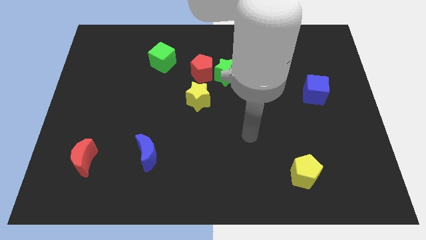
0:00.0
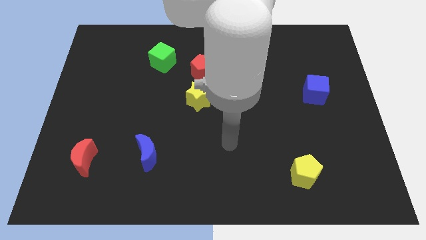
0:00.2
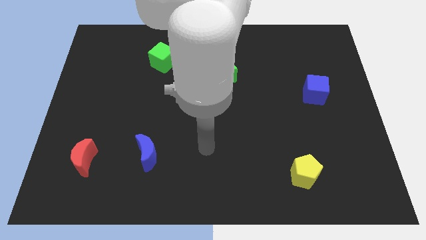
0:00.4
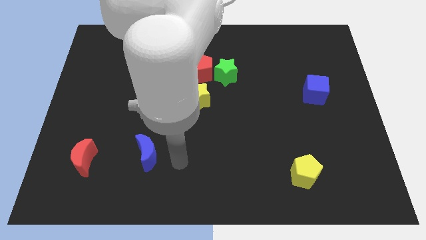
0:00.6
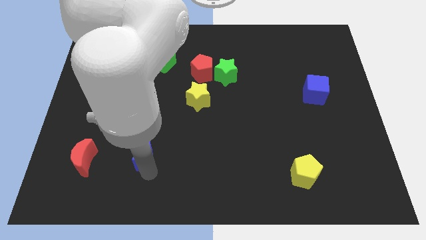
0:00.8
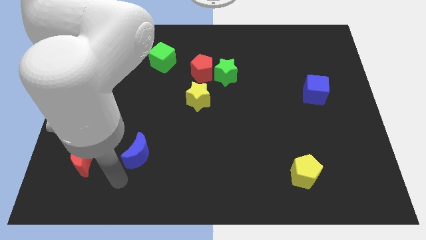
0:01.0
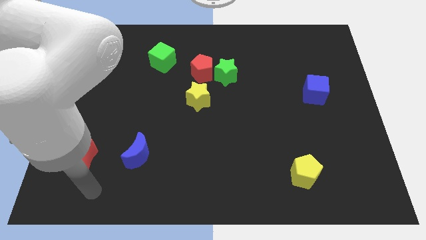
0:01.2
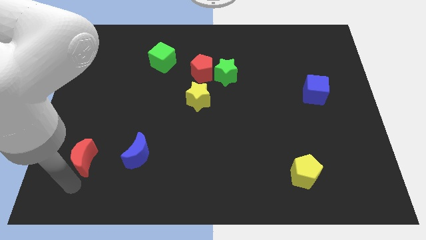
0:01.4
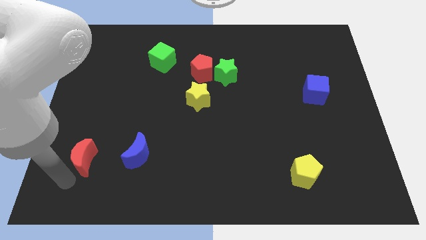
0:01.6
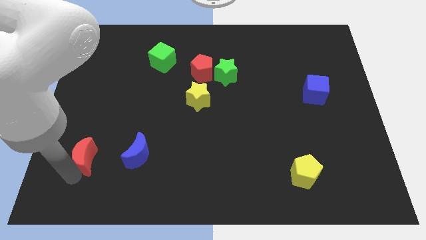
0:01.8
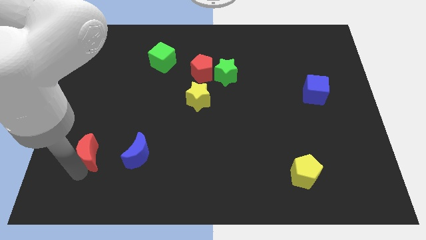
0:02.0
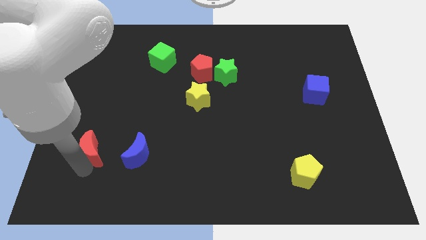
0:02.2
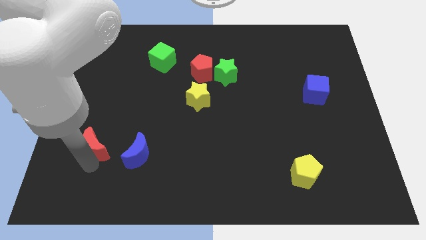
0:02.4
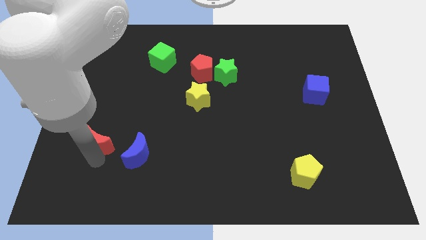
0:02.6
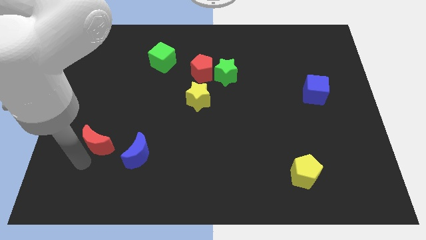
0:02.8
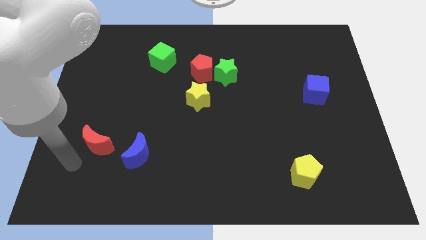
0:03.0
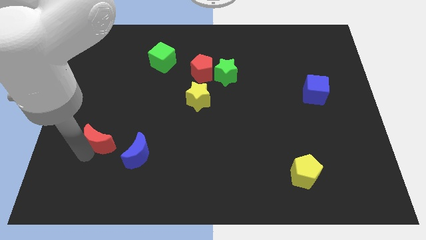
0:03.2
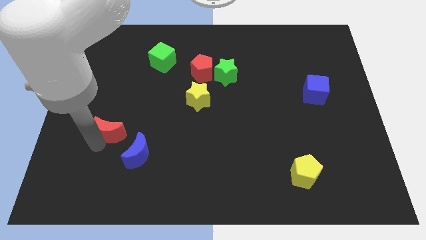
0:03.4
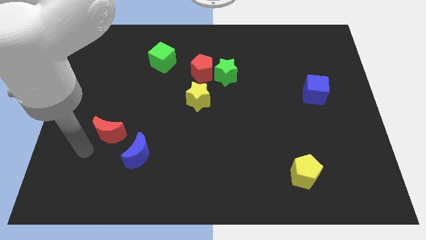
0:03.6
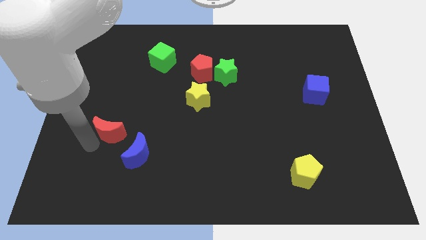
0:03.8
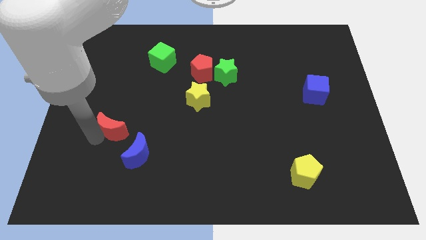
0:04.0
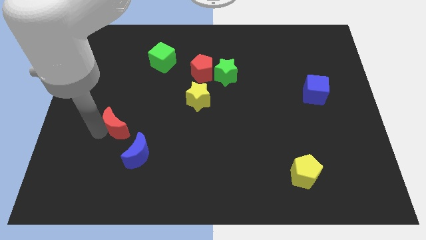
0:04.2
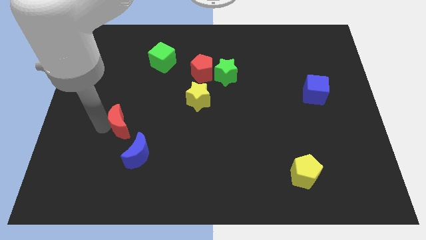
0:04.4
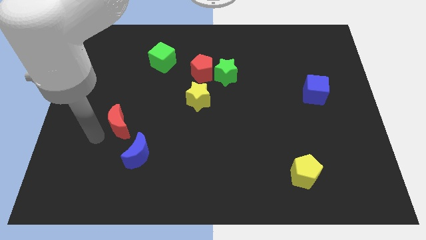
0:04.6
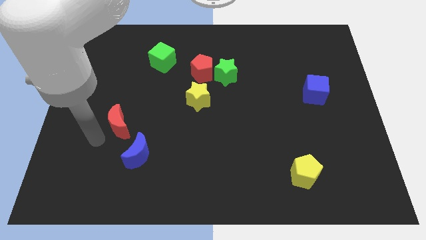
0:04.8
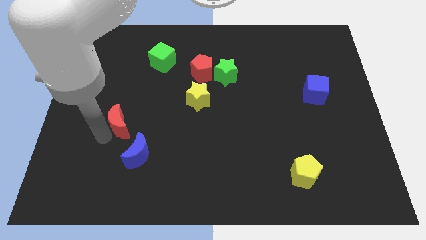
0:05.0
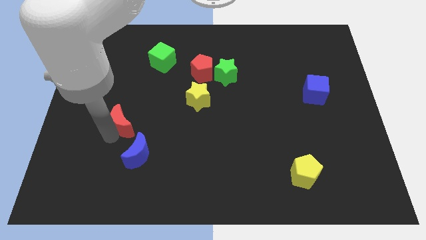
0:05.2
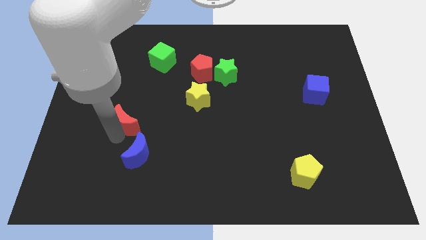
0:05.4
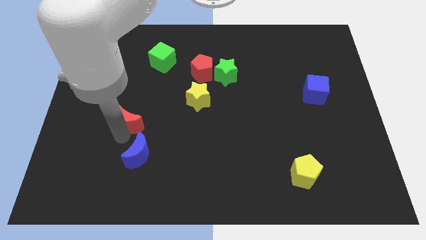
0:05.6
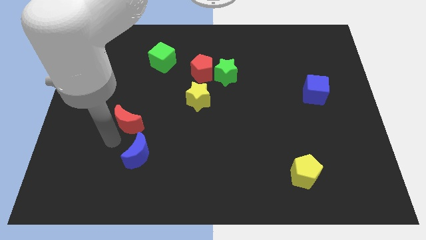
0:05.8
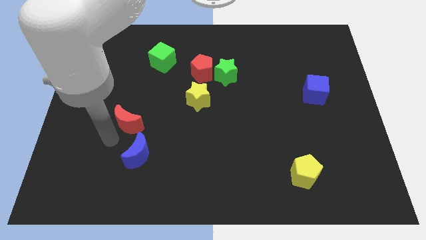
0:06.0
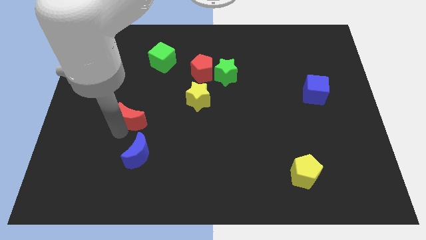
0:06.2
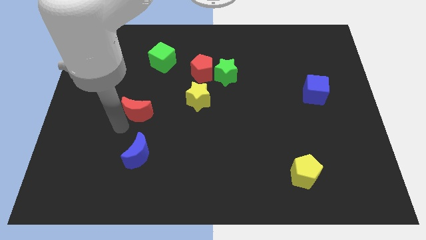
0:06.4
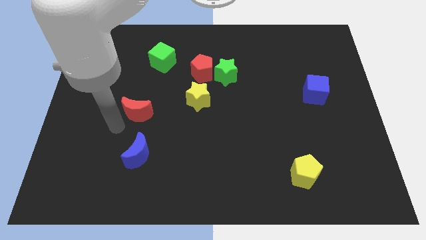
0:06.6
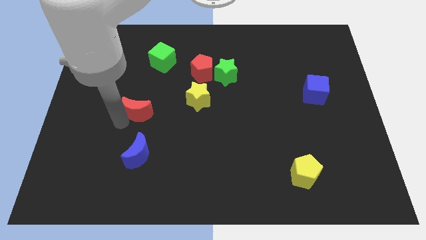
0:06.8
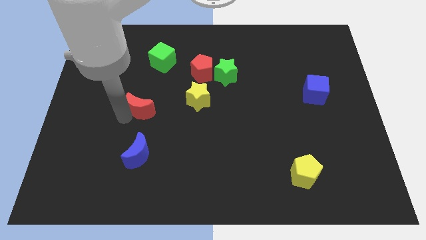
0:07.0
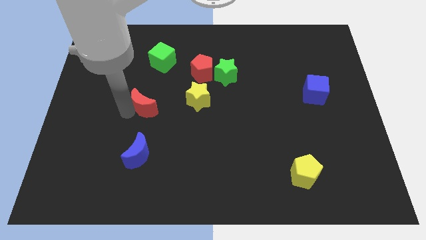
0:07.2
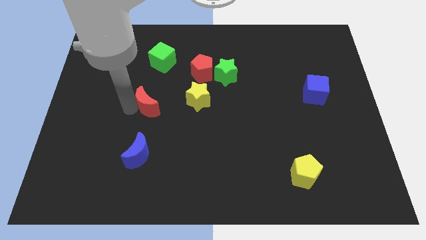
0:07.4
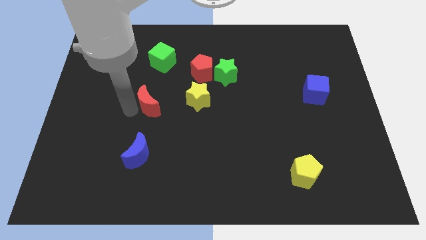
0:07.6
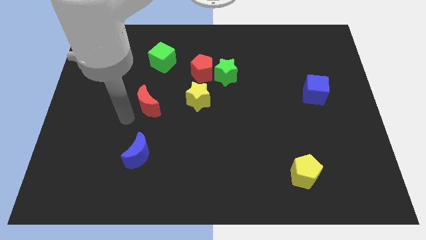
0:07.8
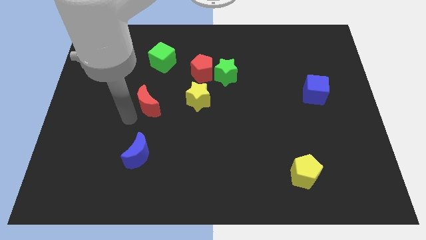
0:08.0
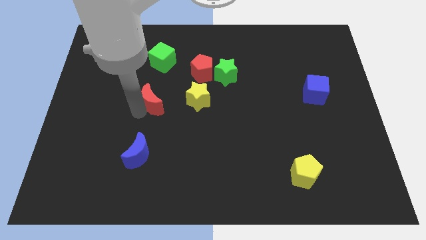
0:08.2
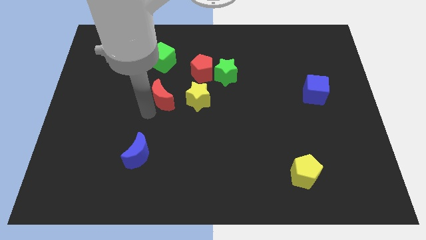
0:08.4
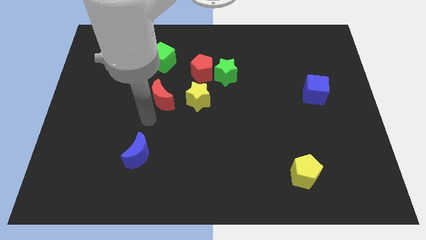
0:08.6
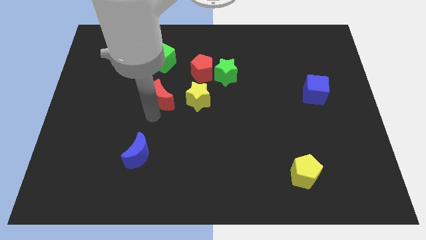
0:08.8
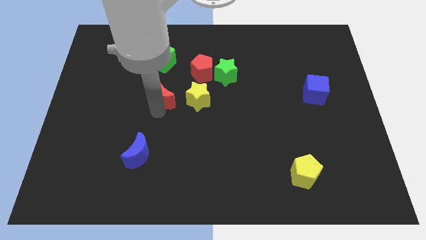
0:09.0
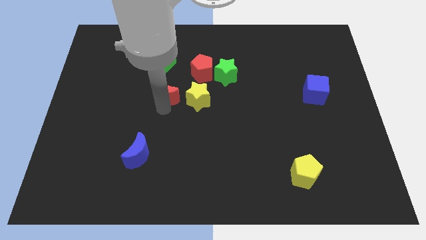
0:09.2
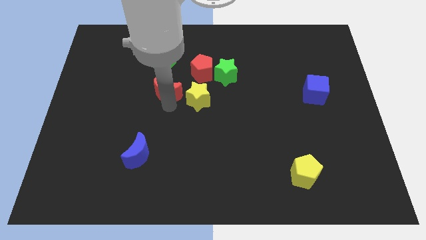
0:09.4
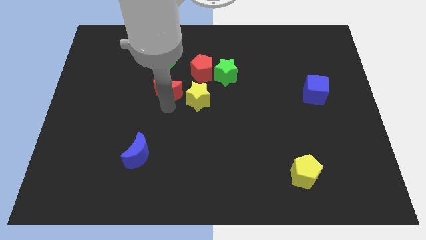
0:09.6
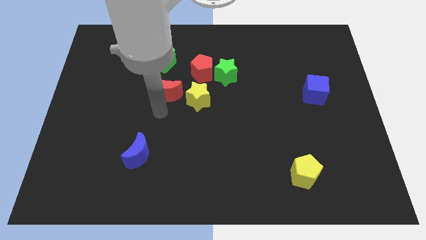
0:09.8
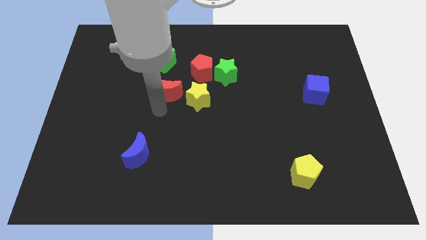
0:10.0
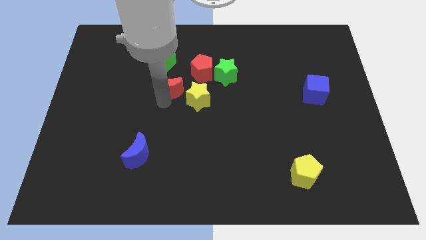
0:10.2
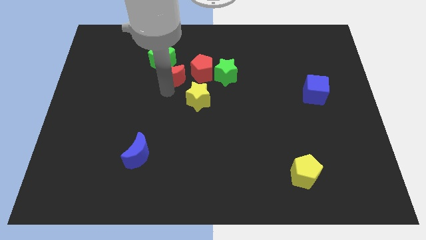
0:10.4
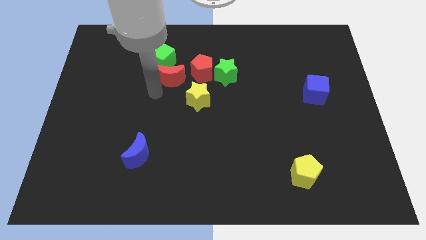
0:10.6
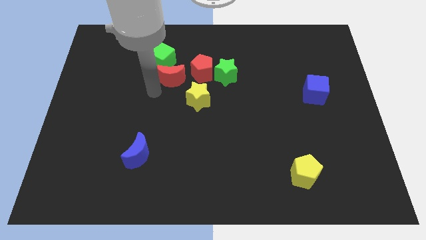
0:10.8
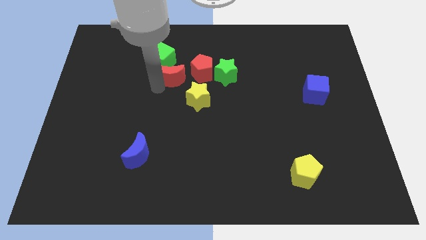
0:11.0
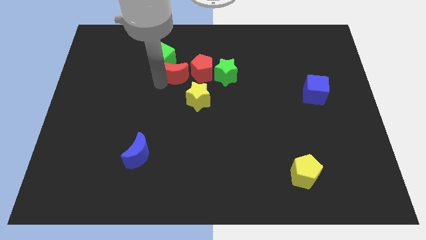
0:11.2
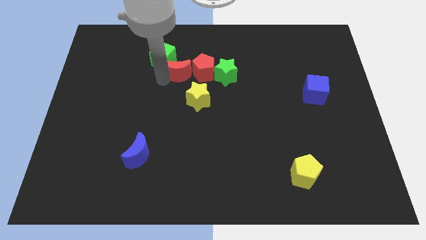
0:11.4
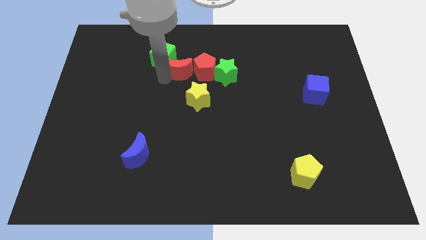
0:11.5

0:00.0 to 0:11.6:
slide the red moon to the top of the yellow star

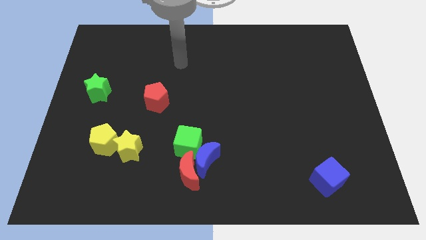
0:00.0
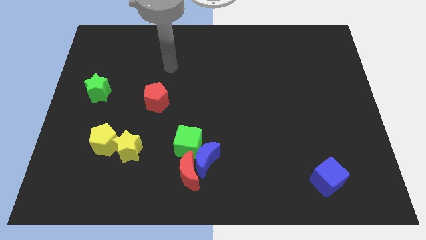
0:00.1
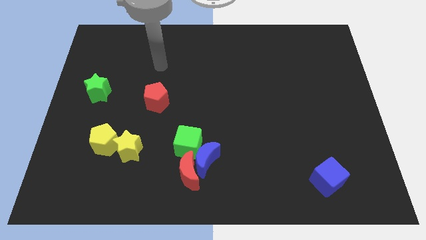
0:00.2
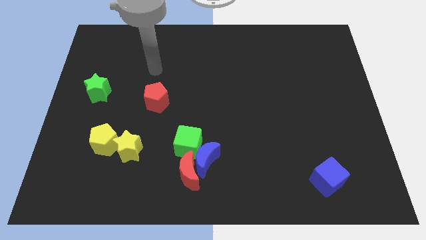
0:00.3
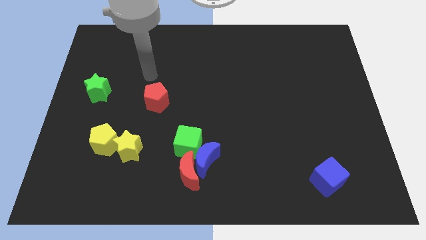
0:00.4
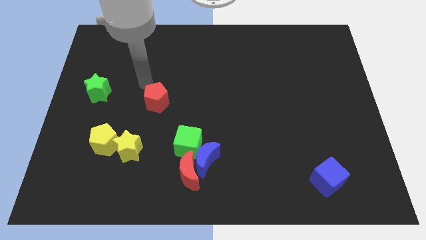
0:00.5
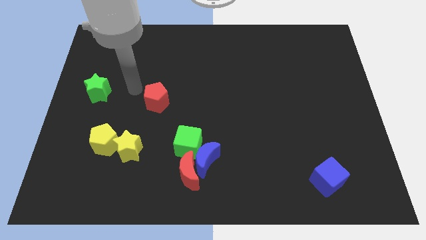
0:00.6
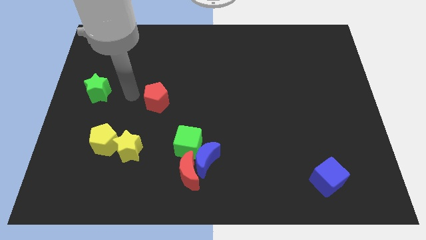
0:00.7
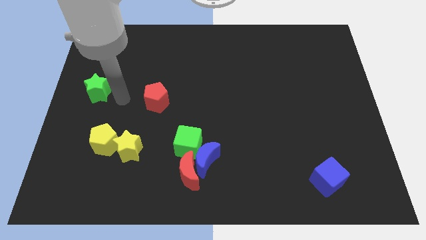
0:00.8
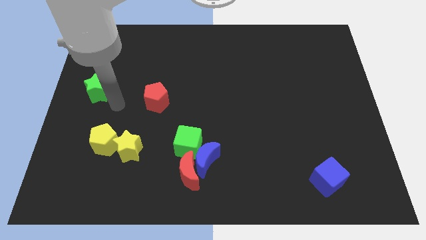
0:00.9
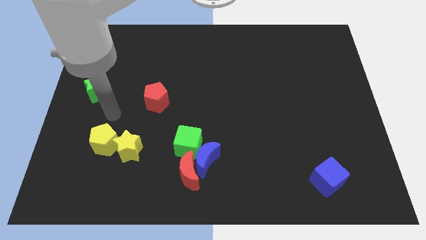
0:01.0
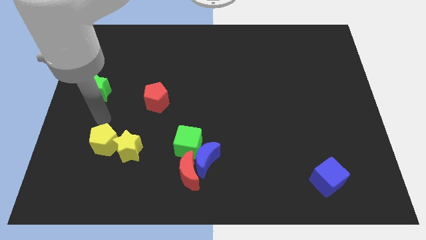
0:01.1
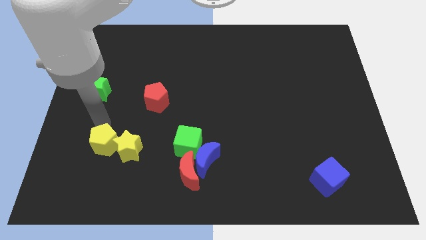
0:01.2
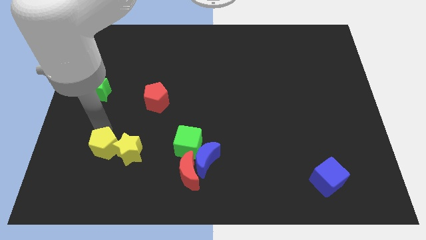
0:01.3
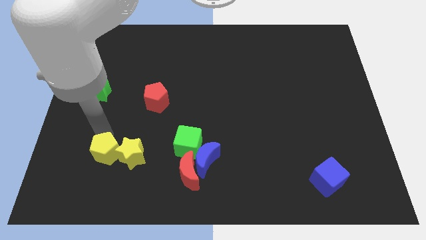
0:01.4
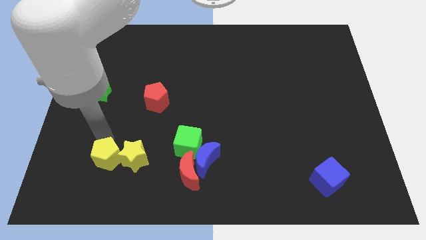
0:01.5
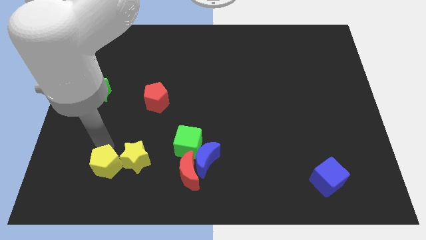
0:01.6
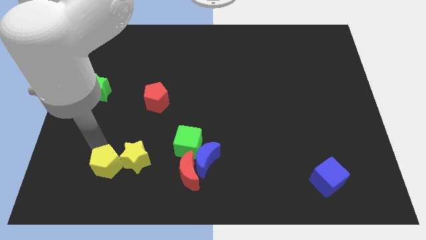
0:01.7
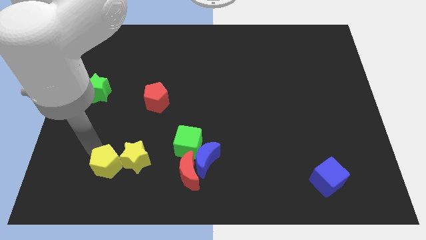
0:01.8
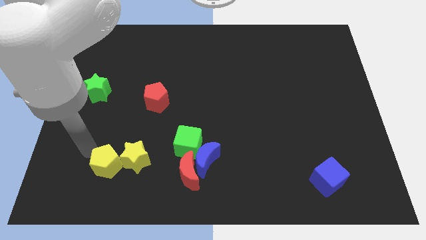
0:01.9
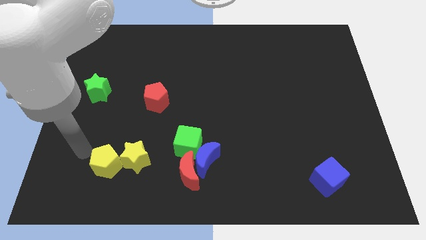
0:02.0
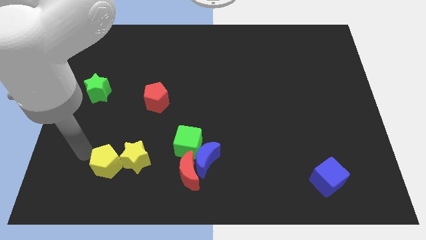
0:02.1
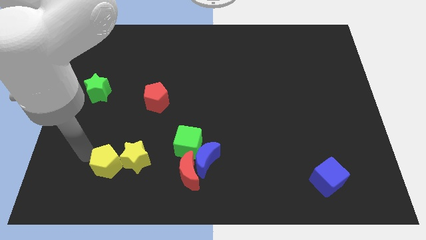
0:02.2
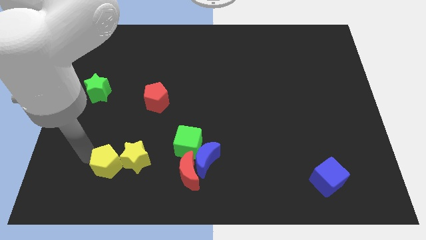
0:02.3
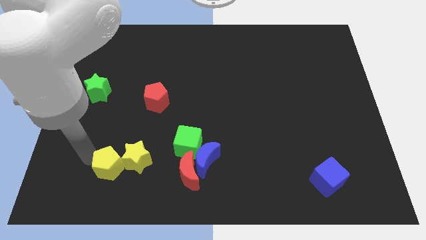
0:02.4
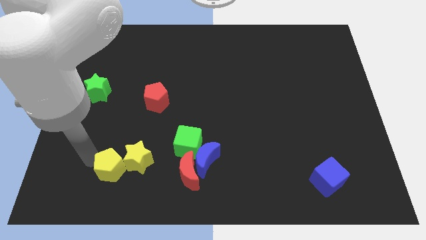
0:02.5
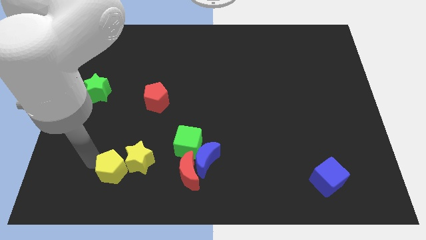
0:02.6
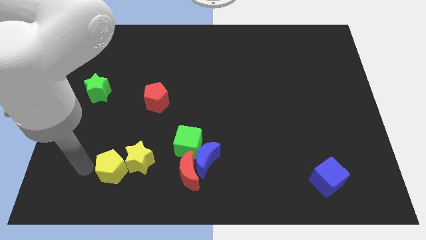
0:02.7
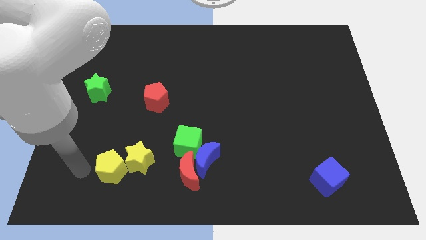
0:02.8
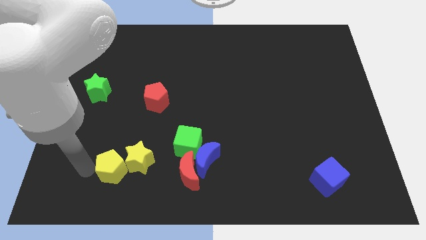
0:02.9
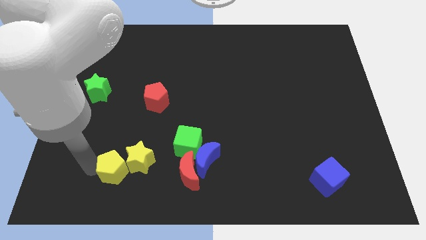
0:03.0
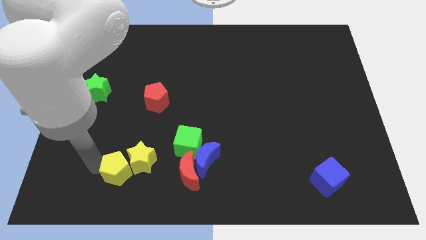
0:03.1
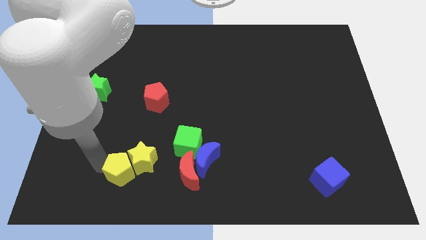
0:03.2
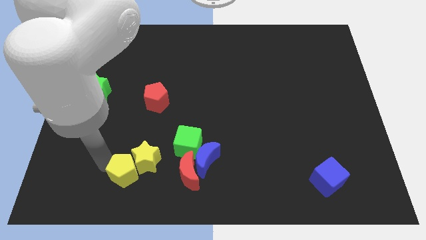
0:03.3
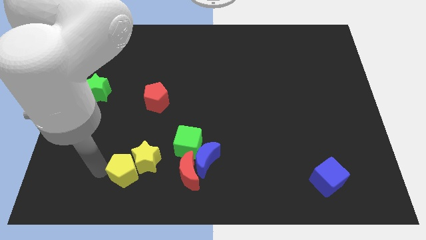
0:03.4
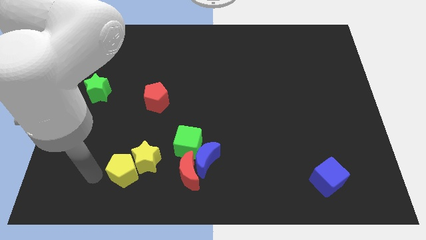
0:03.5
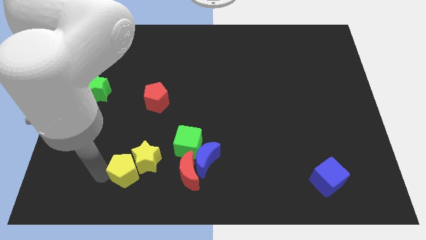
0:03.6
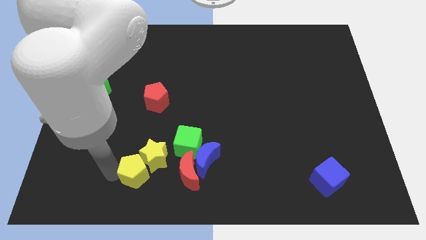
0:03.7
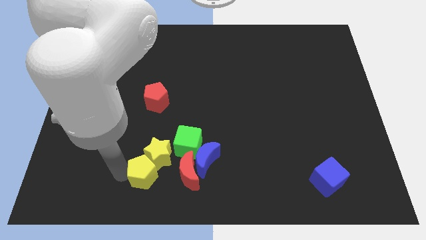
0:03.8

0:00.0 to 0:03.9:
put the yellow pentagon to the bottom left side of the green cube
